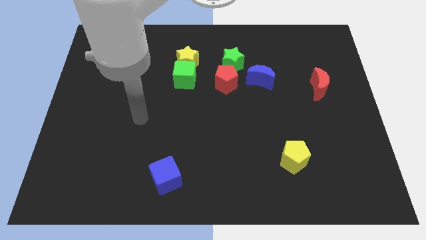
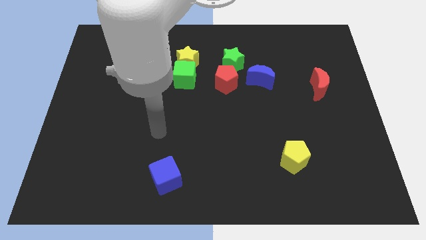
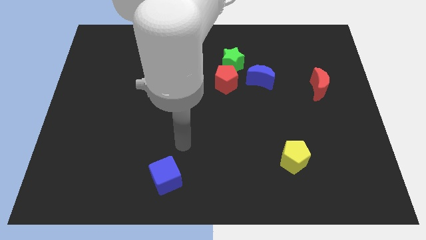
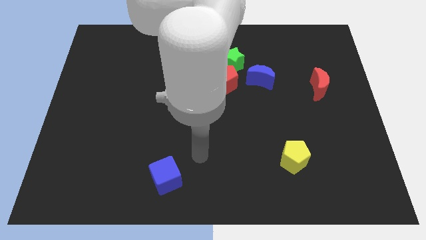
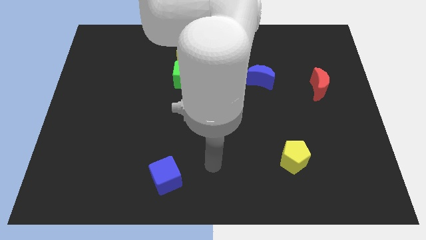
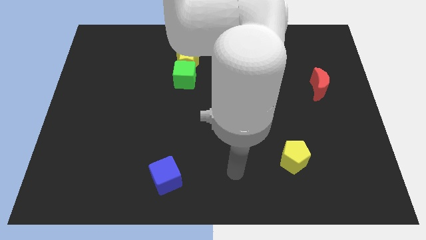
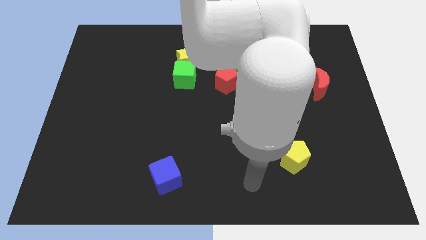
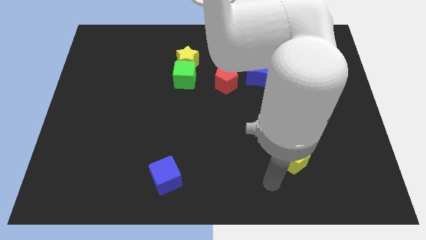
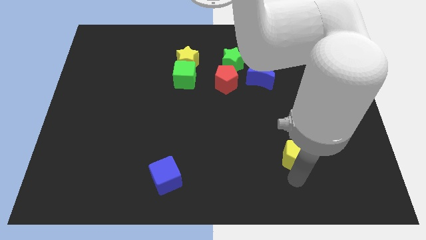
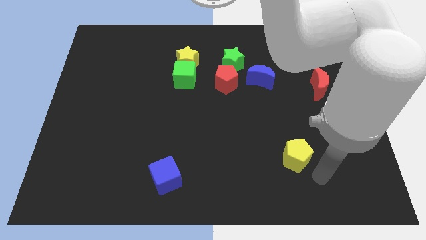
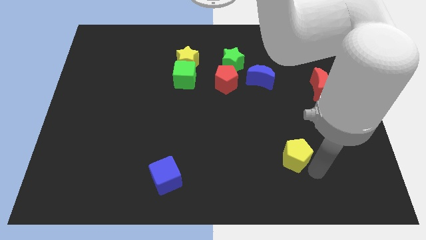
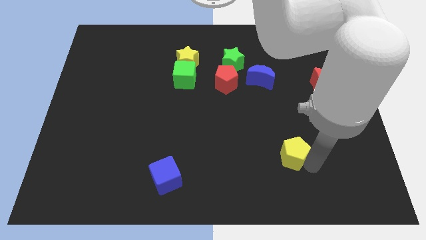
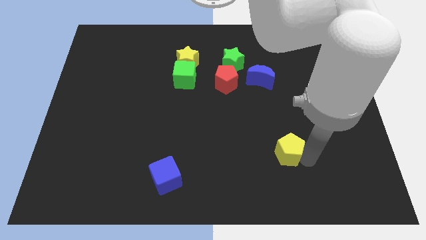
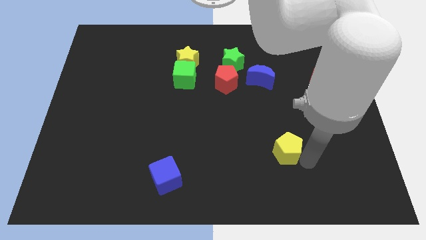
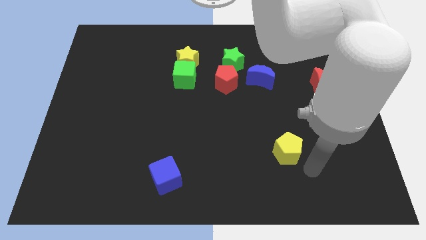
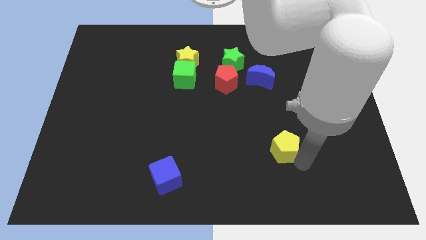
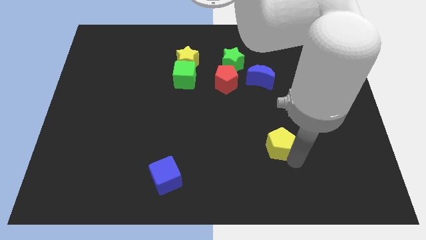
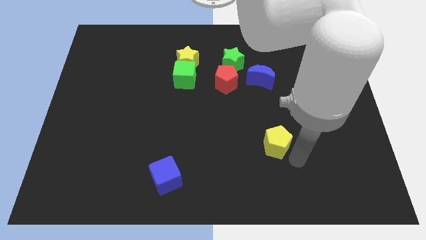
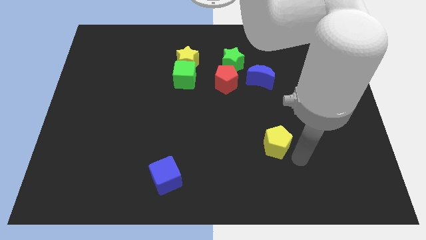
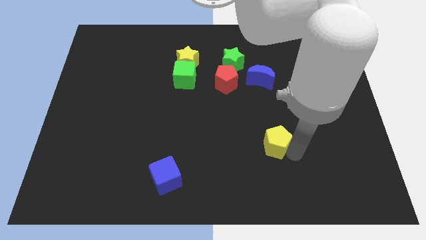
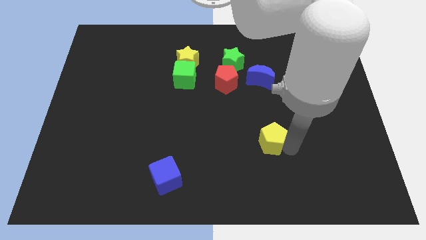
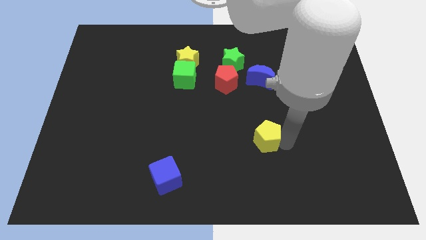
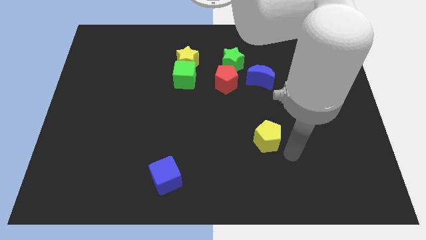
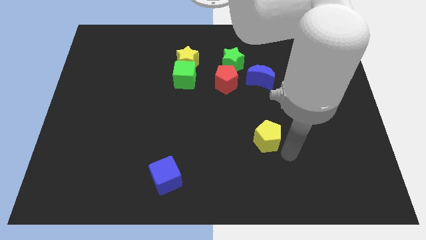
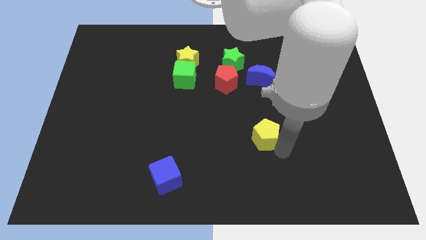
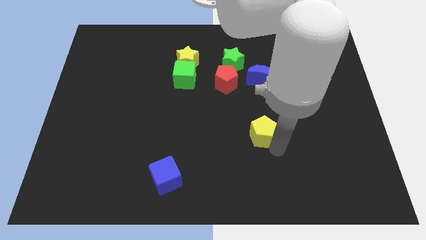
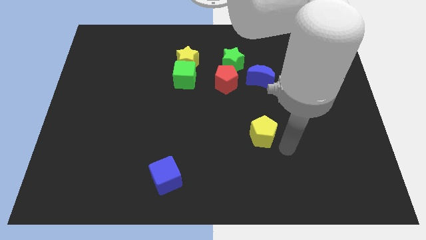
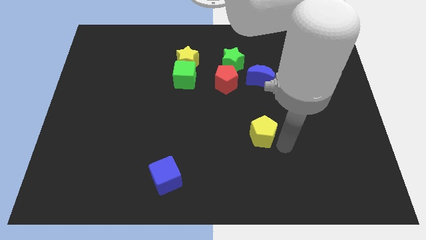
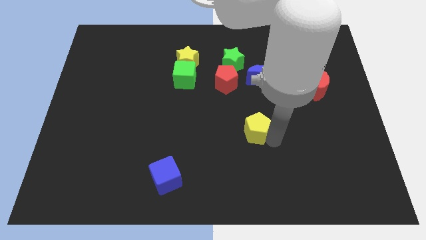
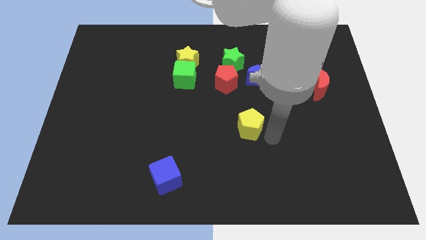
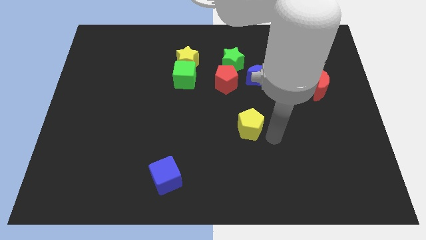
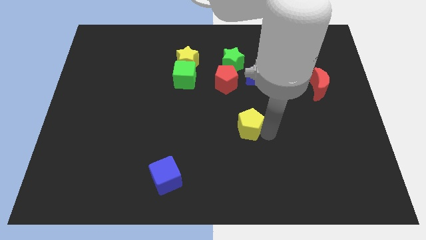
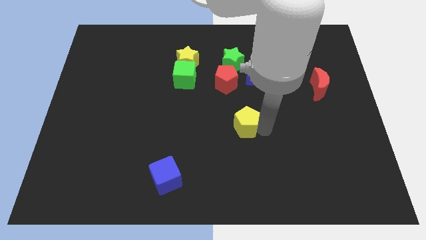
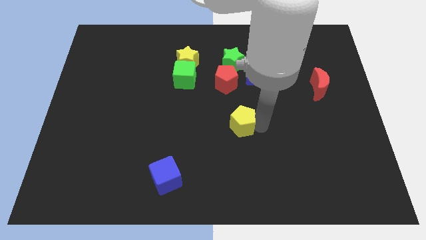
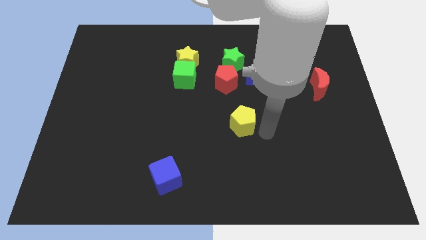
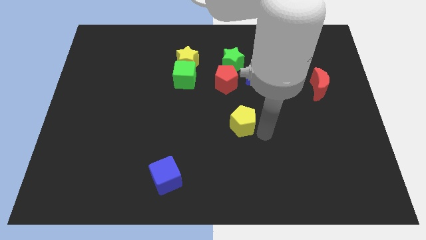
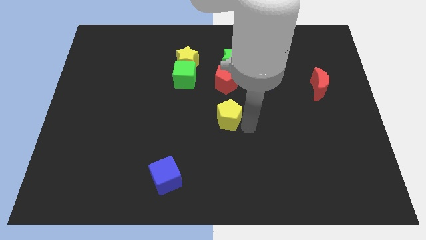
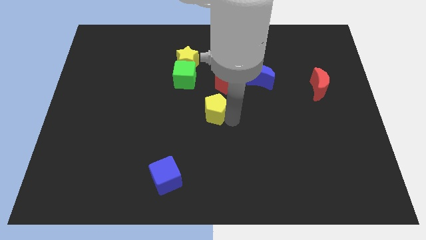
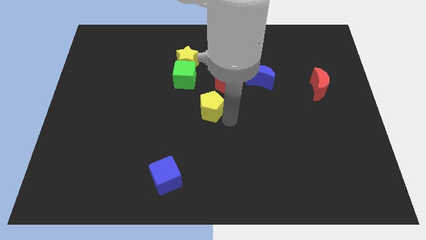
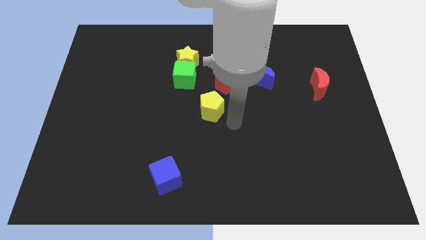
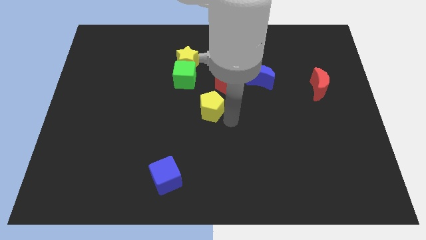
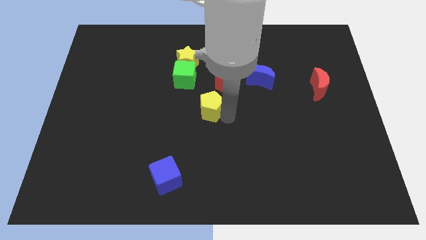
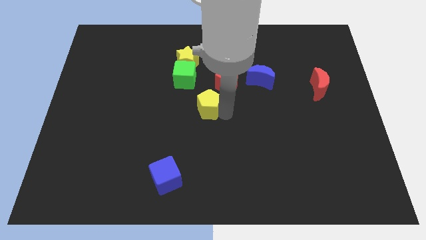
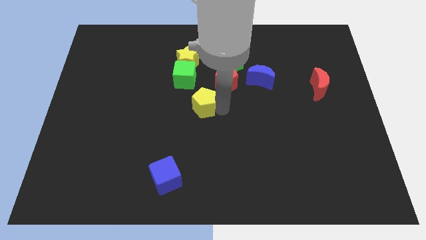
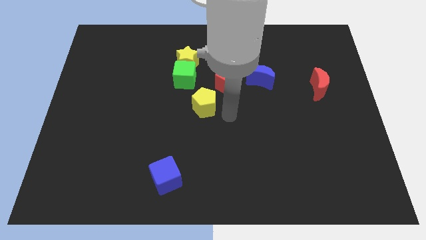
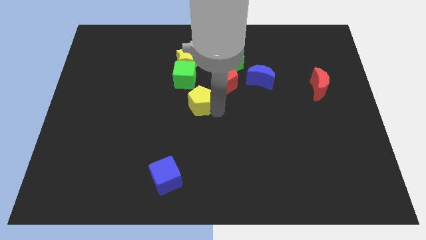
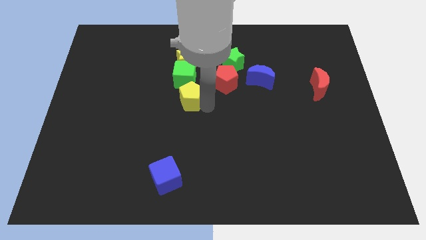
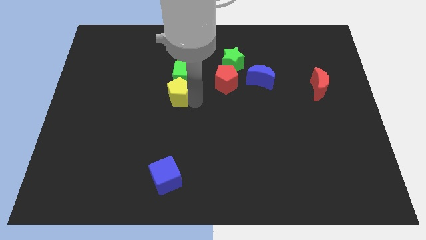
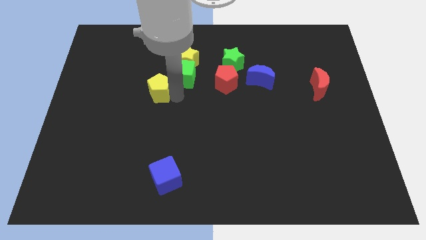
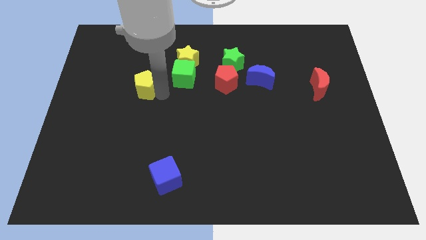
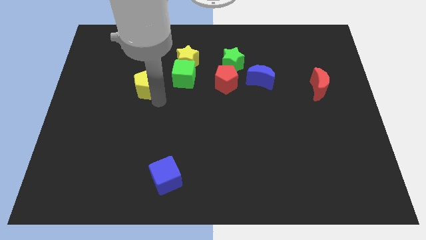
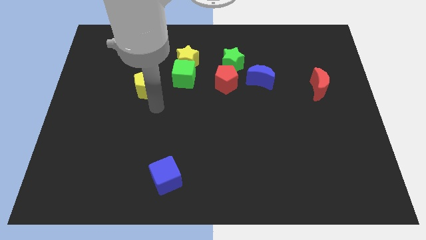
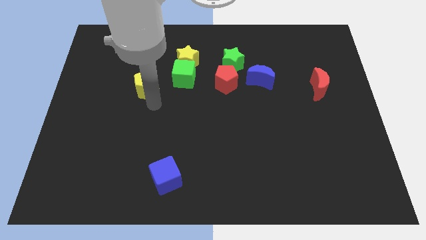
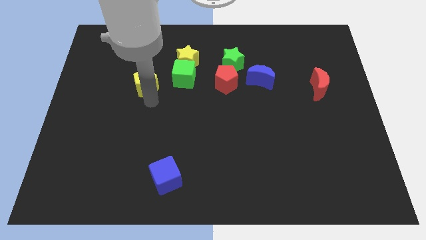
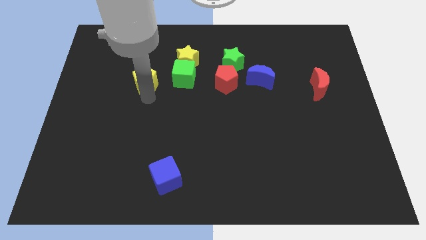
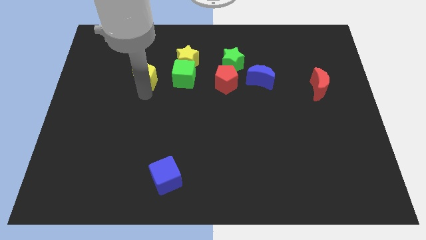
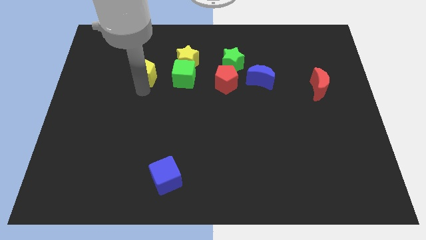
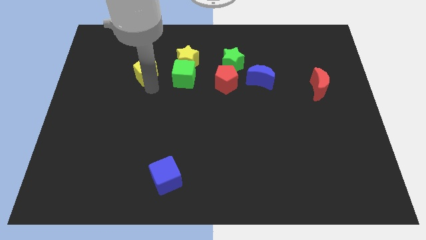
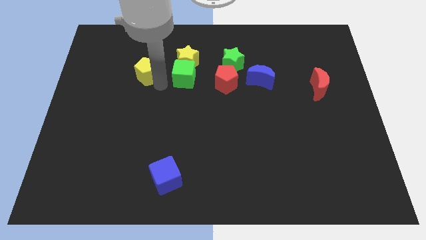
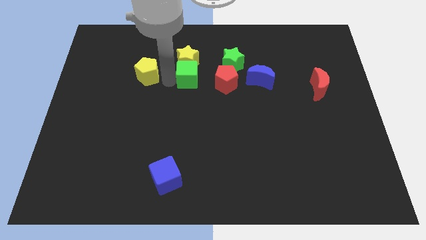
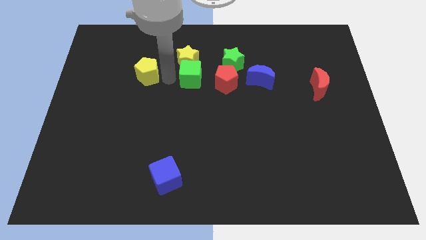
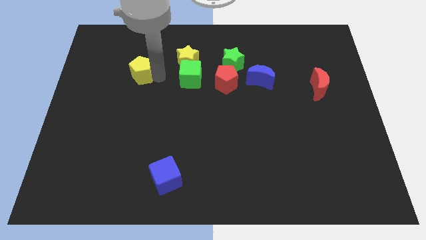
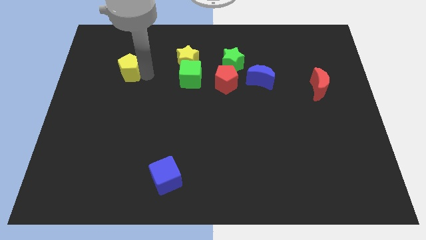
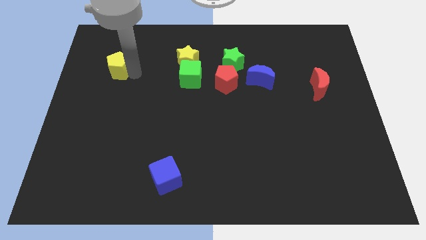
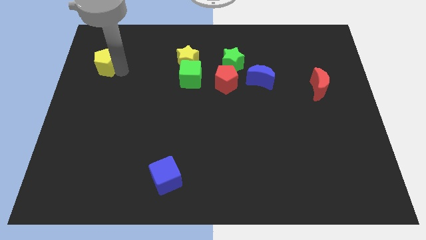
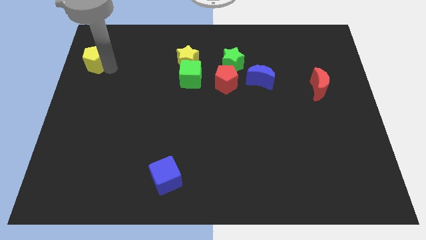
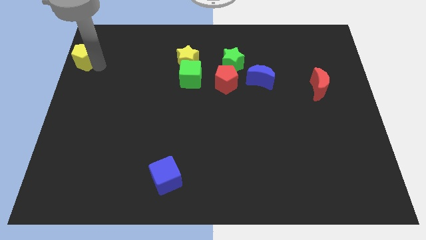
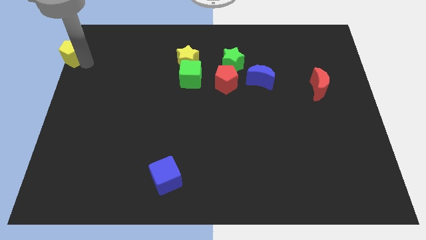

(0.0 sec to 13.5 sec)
put the yellow pentagon to the upper left corner

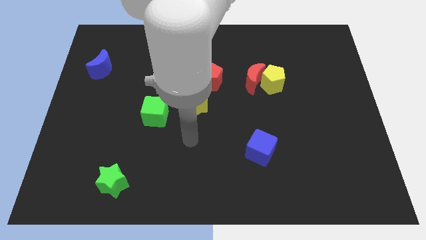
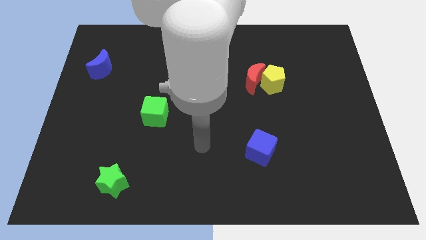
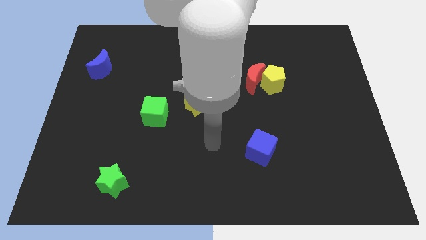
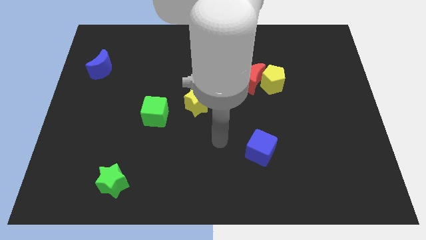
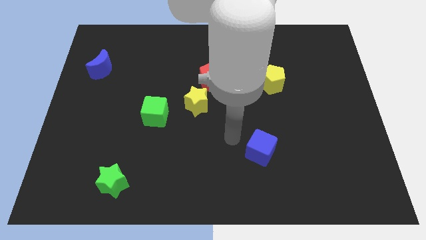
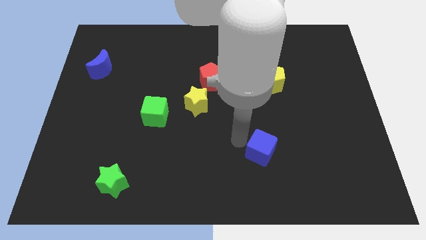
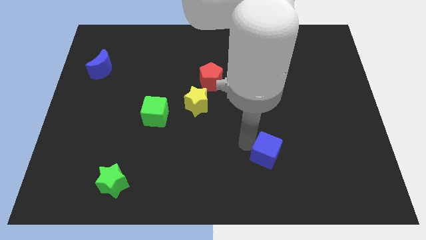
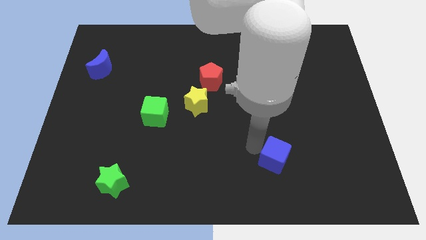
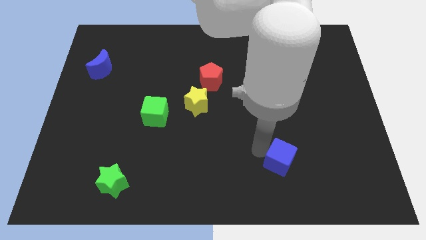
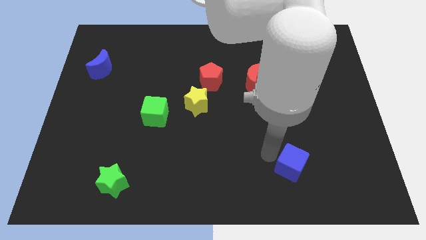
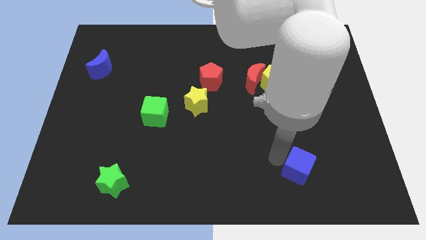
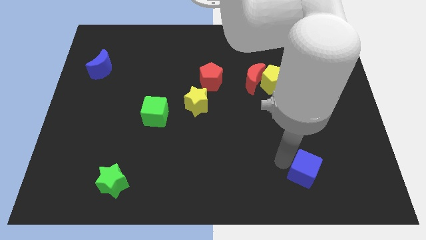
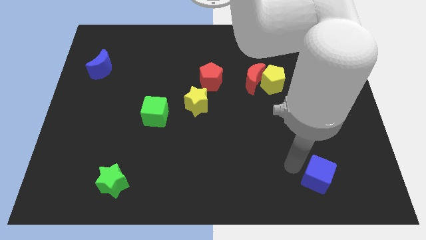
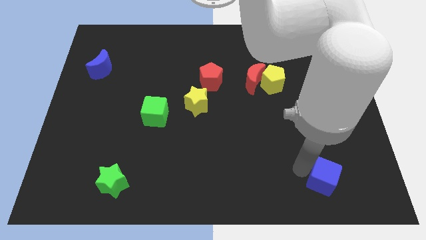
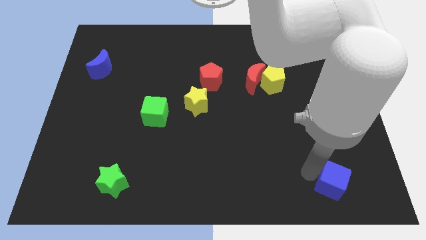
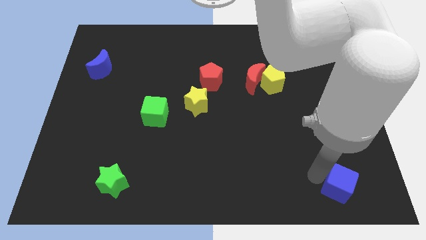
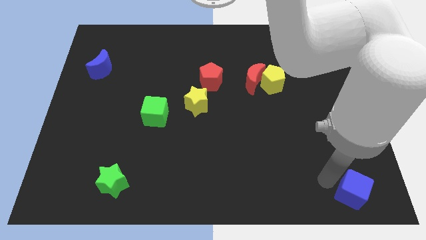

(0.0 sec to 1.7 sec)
slide the blue cube to the bottom right
